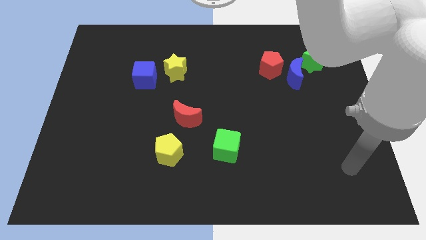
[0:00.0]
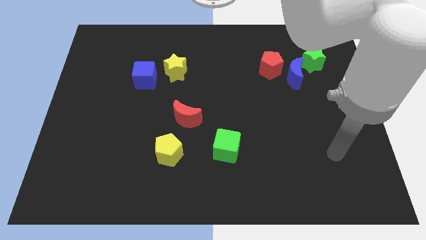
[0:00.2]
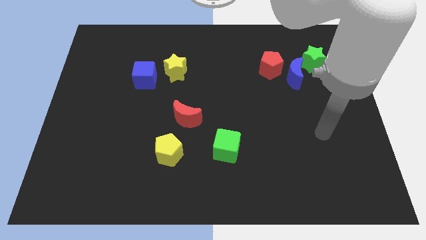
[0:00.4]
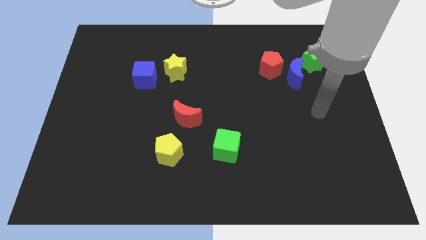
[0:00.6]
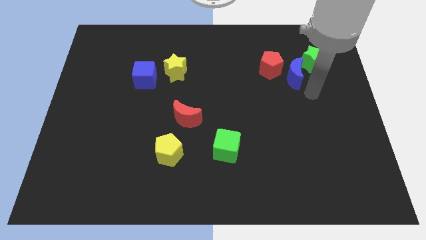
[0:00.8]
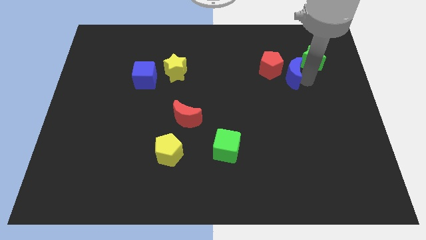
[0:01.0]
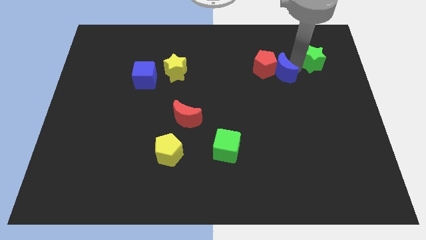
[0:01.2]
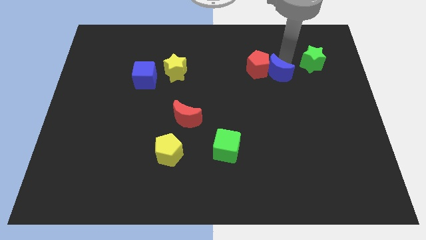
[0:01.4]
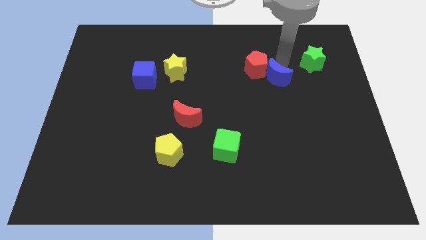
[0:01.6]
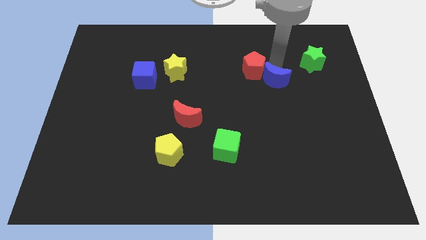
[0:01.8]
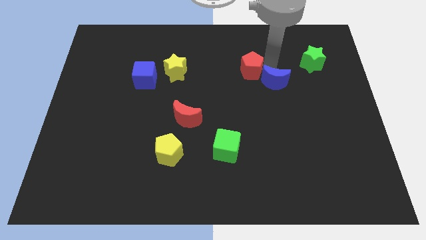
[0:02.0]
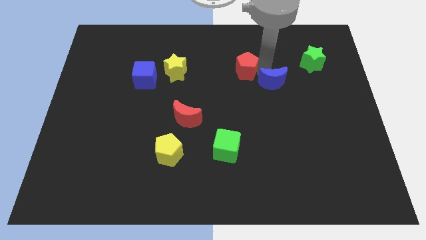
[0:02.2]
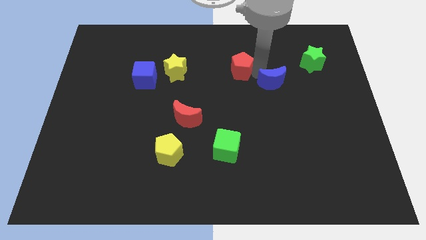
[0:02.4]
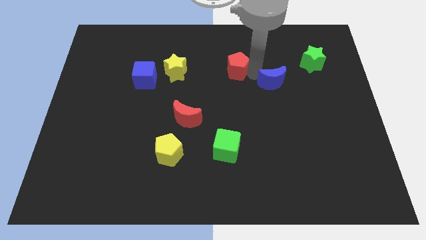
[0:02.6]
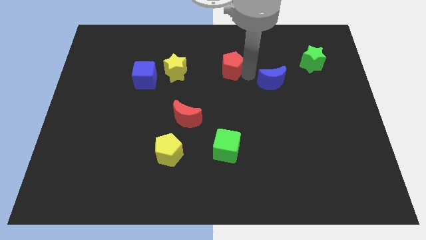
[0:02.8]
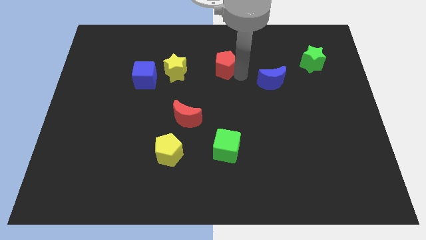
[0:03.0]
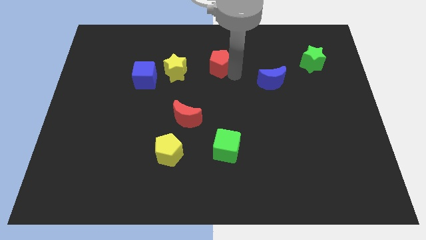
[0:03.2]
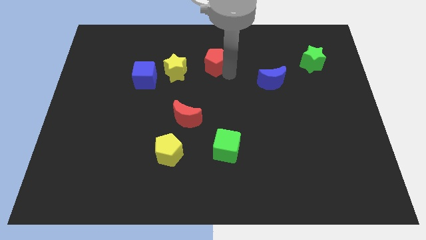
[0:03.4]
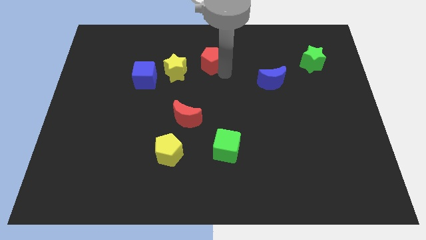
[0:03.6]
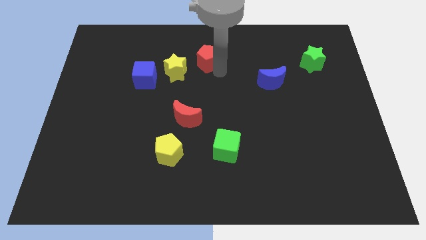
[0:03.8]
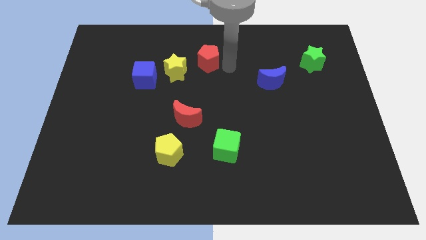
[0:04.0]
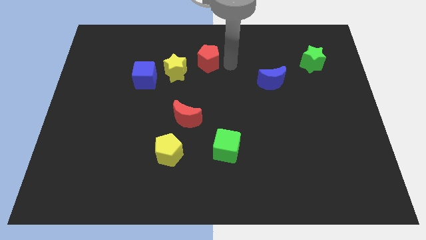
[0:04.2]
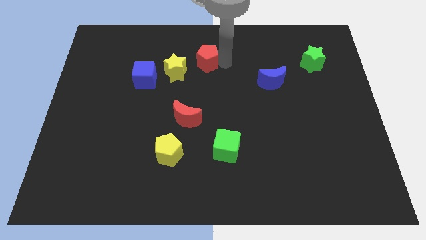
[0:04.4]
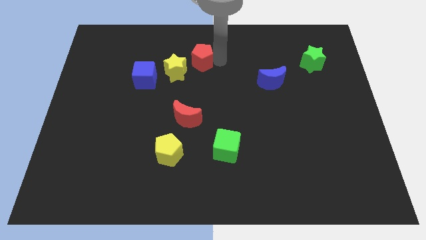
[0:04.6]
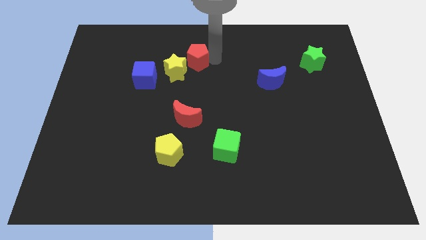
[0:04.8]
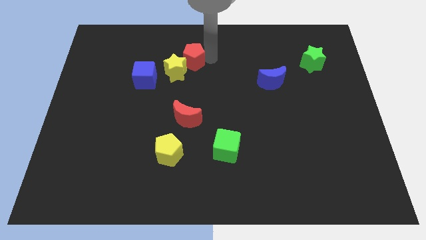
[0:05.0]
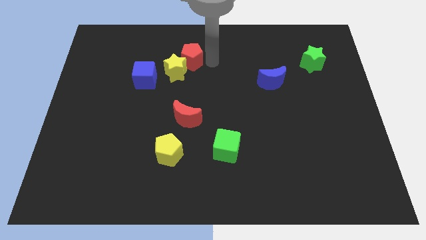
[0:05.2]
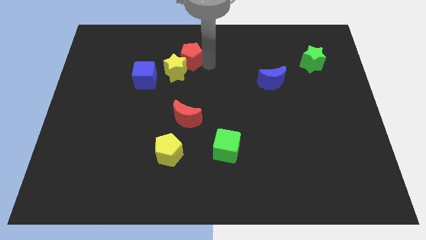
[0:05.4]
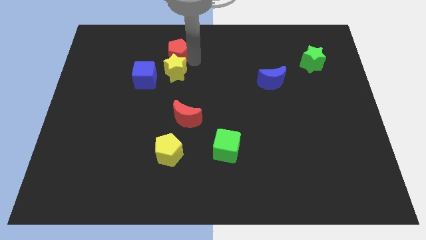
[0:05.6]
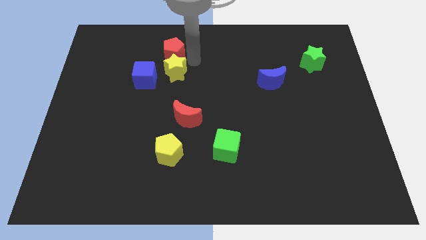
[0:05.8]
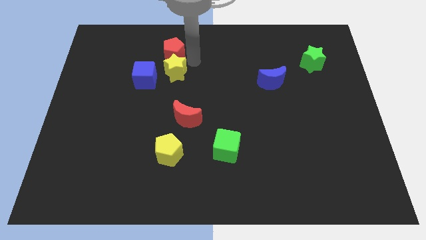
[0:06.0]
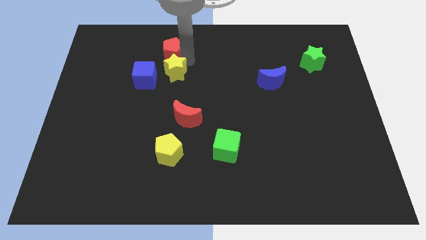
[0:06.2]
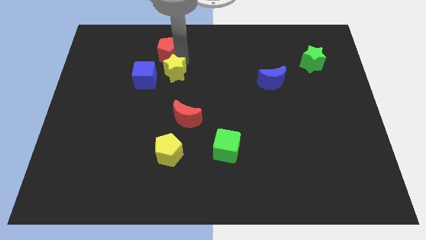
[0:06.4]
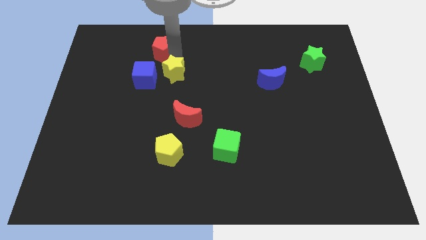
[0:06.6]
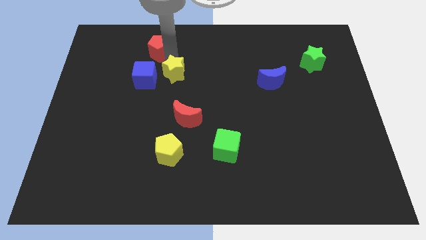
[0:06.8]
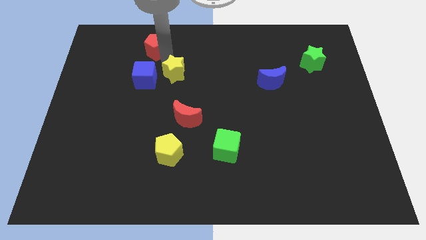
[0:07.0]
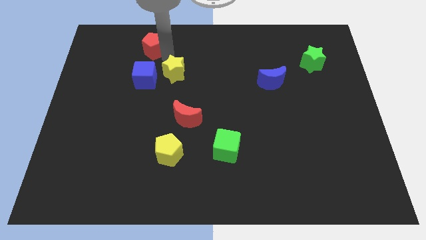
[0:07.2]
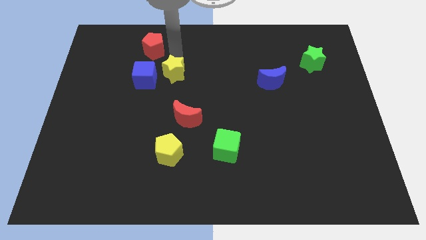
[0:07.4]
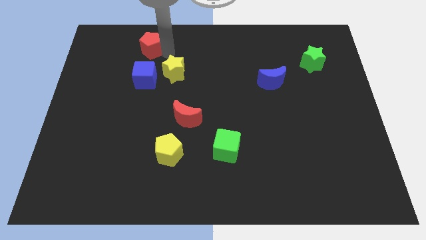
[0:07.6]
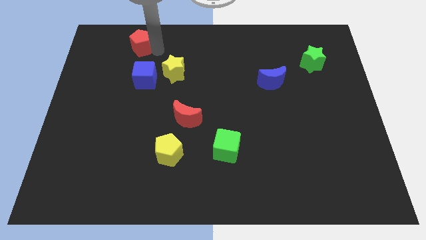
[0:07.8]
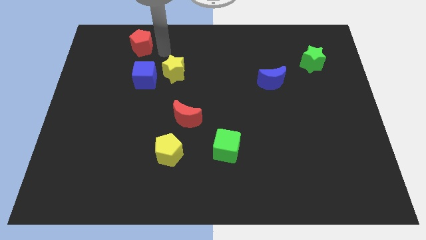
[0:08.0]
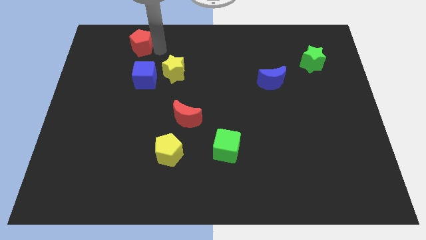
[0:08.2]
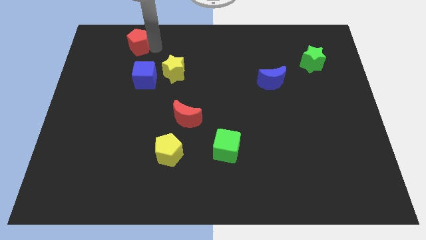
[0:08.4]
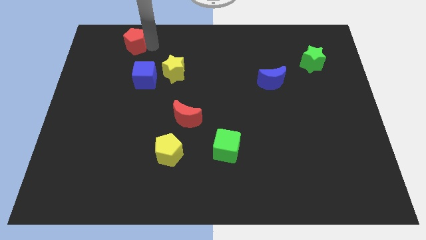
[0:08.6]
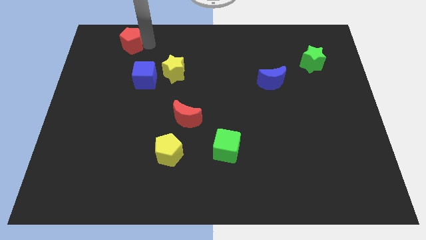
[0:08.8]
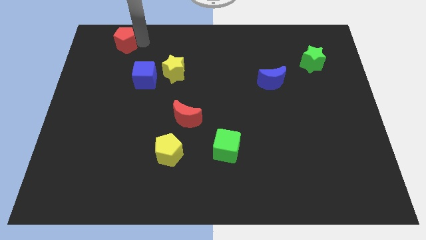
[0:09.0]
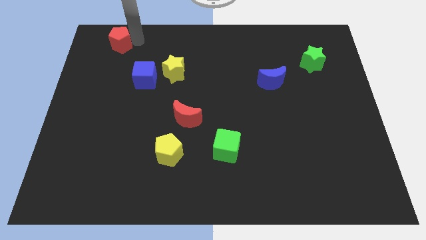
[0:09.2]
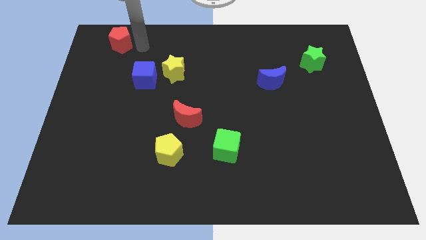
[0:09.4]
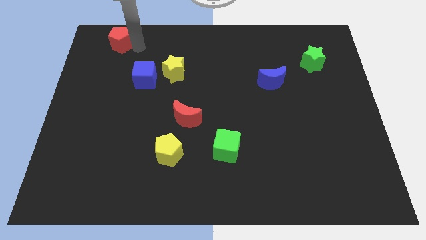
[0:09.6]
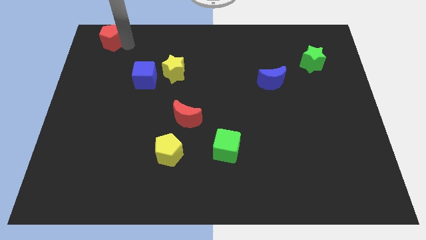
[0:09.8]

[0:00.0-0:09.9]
slide the red pentagon to the top left

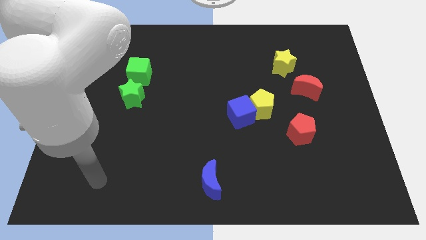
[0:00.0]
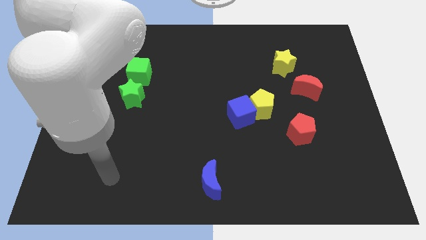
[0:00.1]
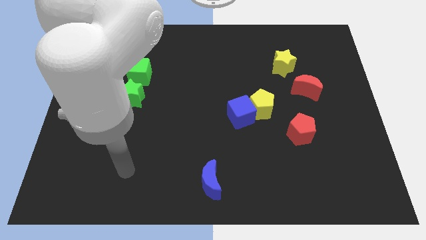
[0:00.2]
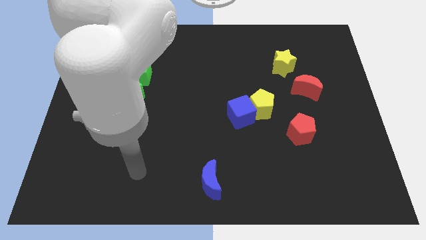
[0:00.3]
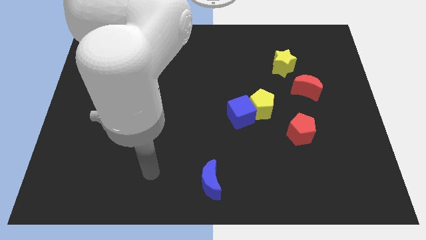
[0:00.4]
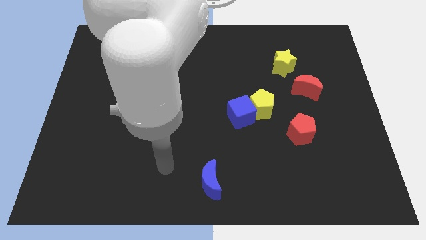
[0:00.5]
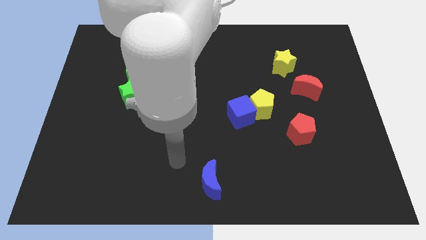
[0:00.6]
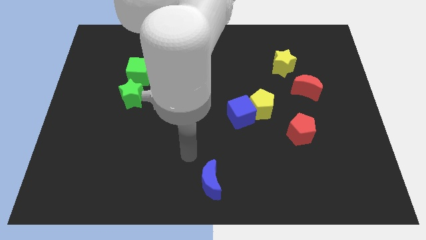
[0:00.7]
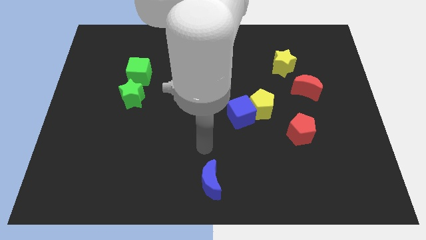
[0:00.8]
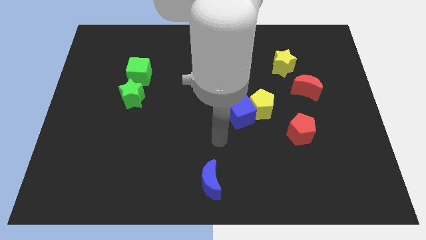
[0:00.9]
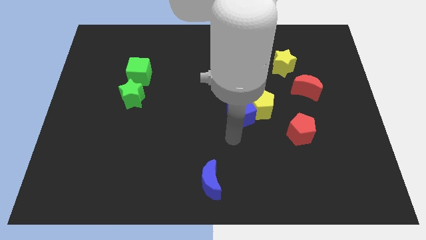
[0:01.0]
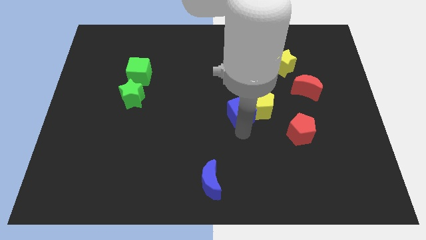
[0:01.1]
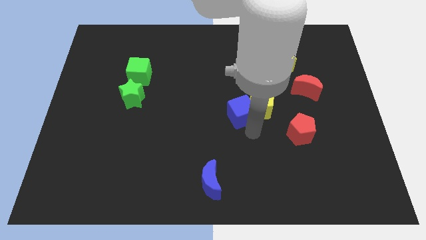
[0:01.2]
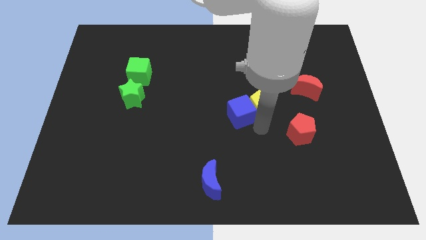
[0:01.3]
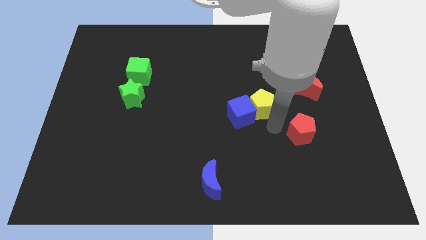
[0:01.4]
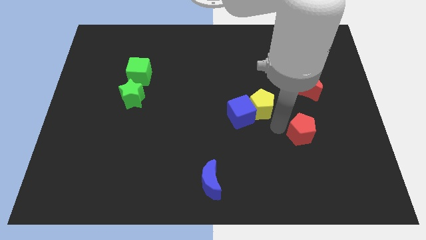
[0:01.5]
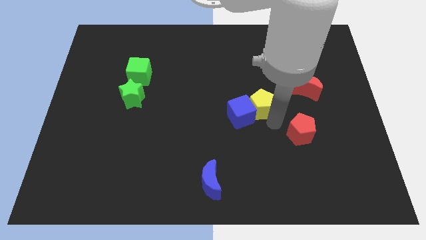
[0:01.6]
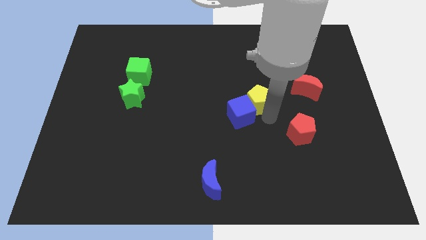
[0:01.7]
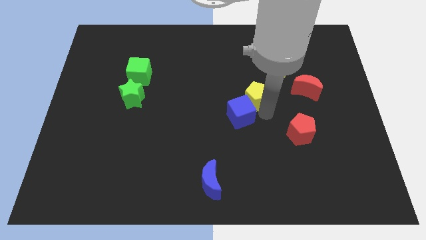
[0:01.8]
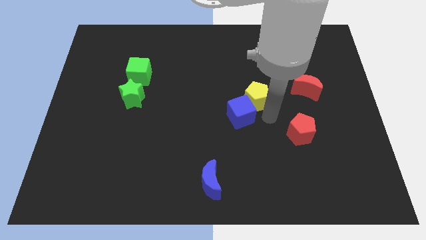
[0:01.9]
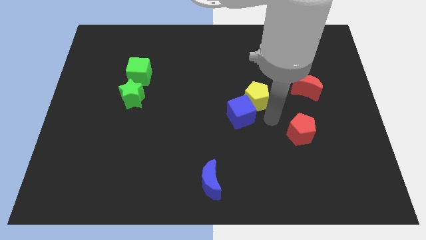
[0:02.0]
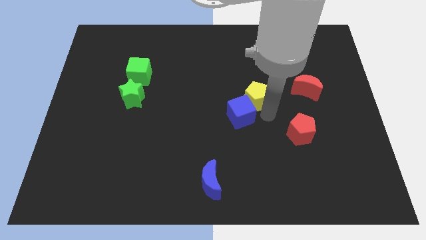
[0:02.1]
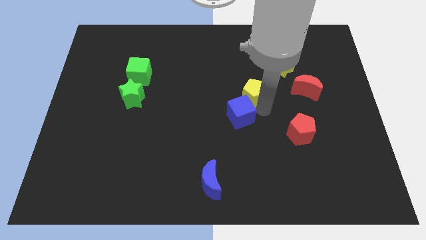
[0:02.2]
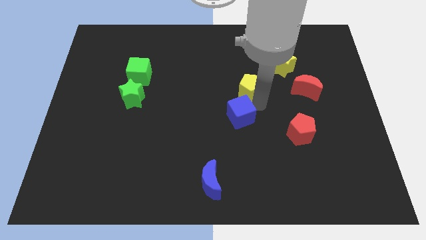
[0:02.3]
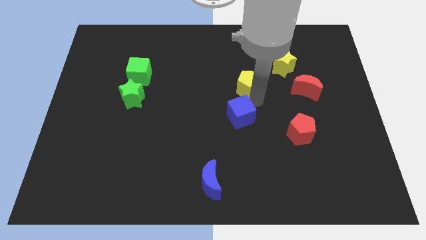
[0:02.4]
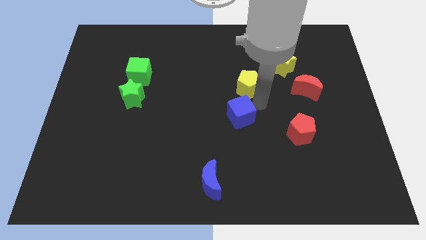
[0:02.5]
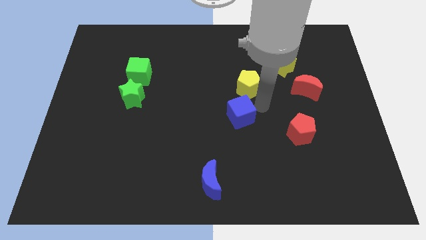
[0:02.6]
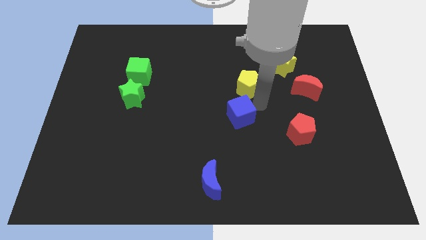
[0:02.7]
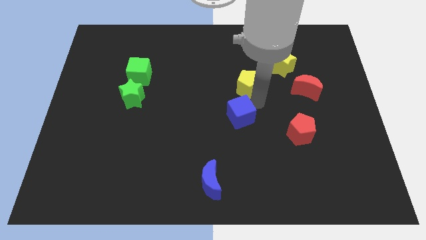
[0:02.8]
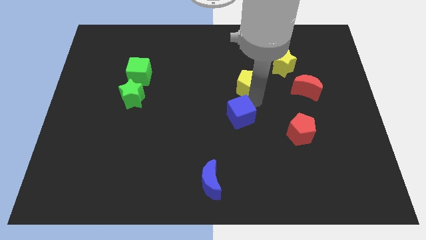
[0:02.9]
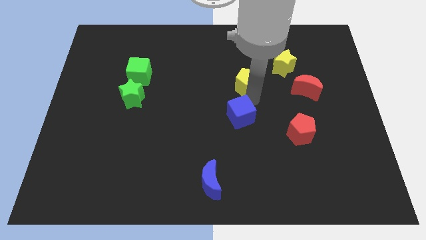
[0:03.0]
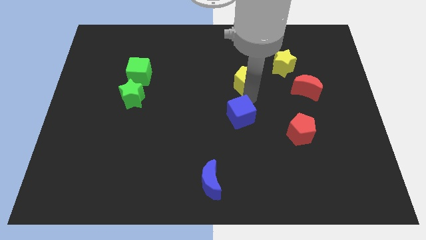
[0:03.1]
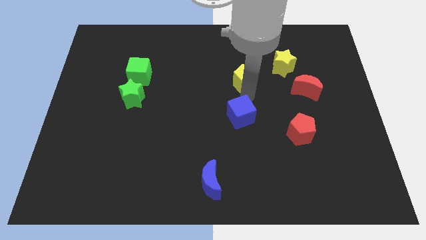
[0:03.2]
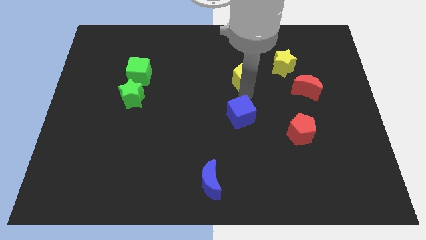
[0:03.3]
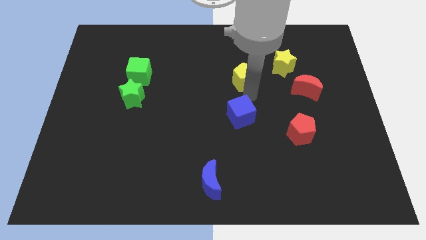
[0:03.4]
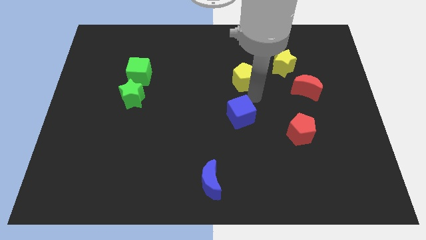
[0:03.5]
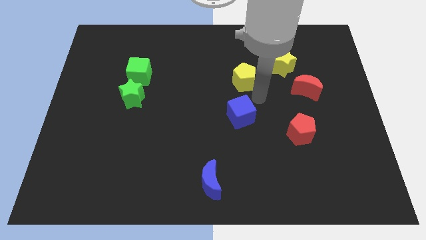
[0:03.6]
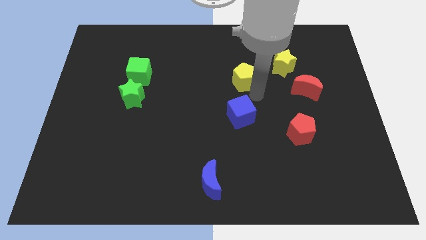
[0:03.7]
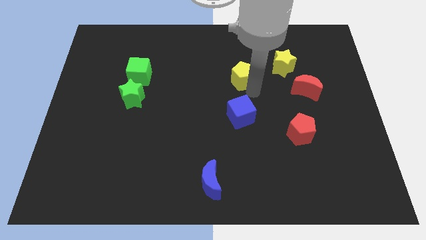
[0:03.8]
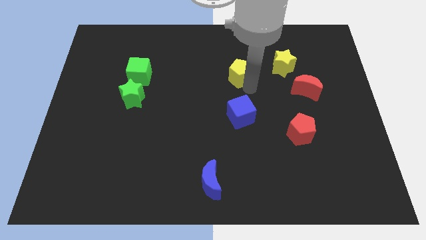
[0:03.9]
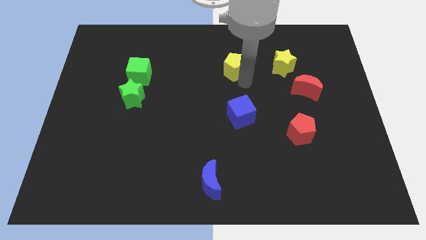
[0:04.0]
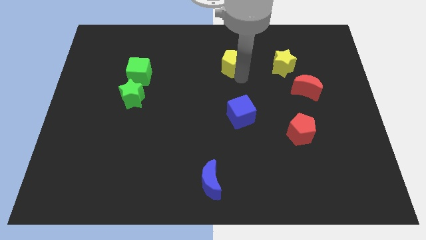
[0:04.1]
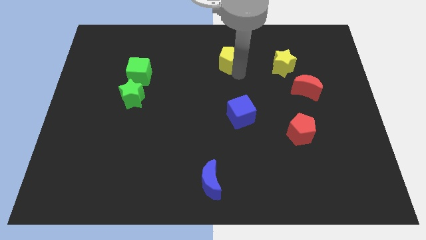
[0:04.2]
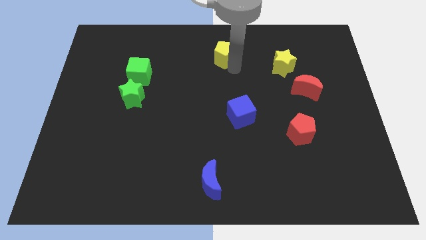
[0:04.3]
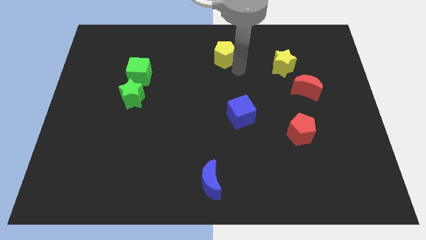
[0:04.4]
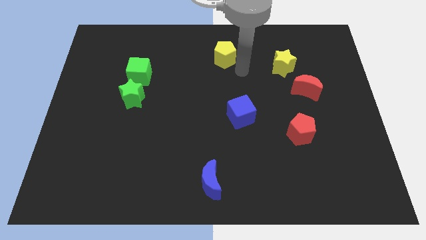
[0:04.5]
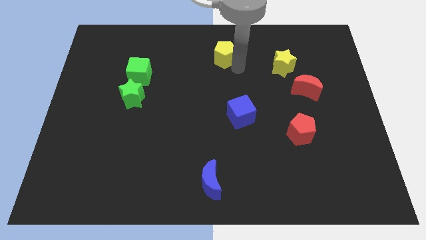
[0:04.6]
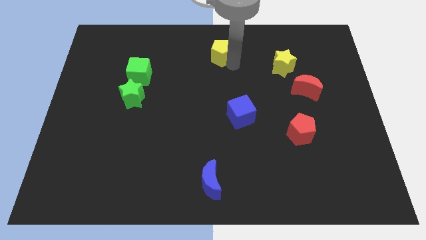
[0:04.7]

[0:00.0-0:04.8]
push the yellow pentagon to the top
